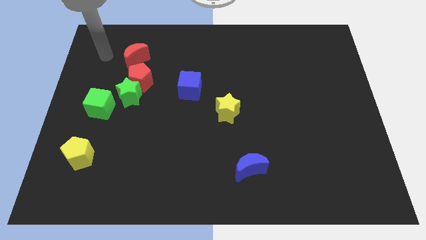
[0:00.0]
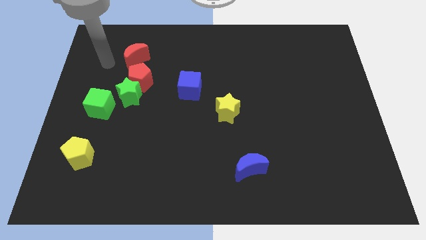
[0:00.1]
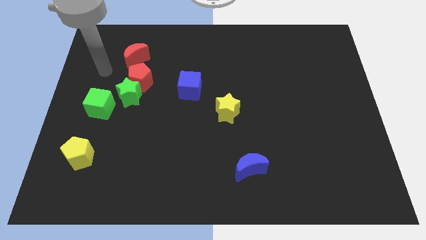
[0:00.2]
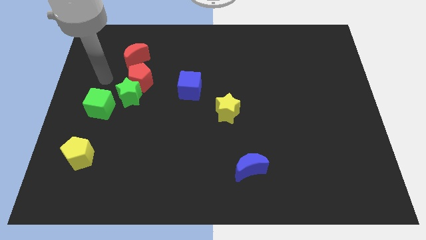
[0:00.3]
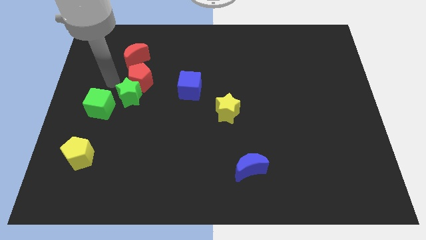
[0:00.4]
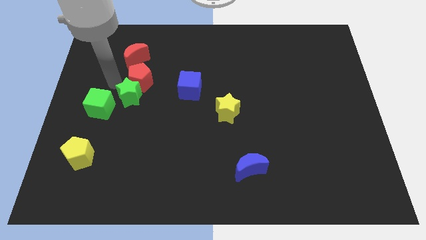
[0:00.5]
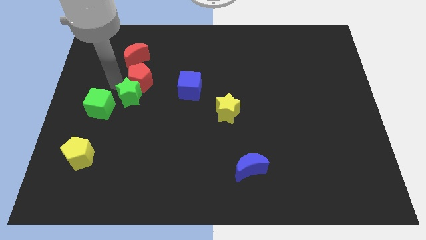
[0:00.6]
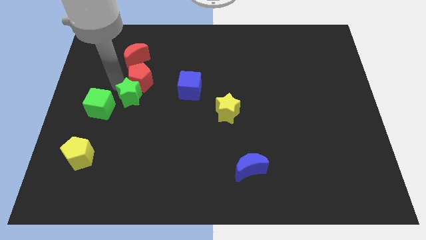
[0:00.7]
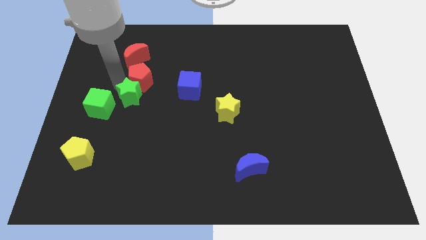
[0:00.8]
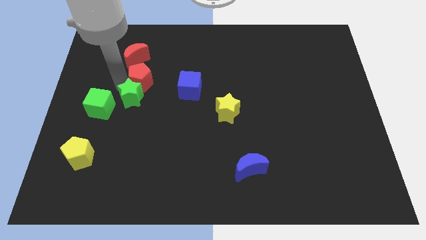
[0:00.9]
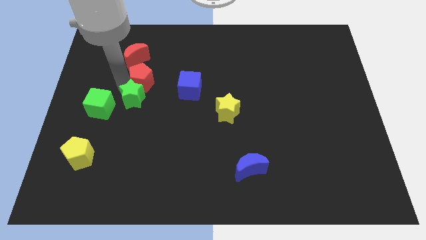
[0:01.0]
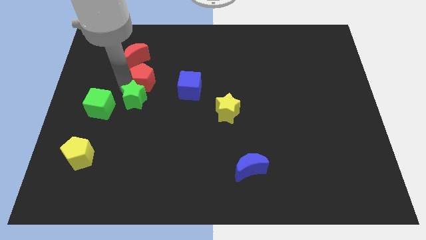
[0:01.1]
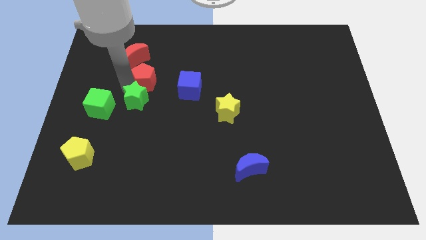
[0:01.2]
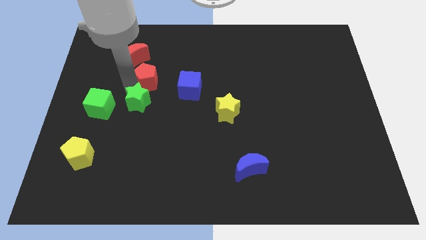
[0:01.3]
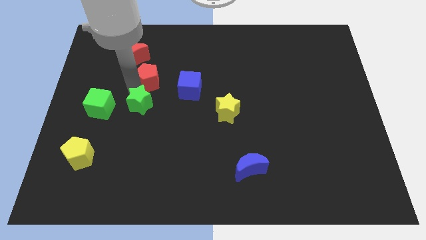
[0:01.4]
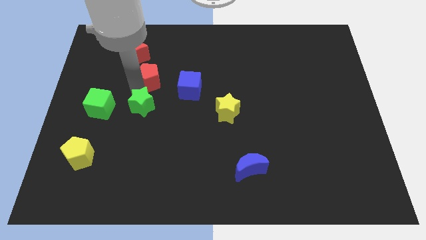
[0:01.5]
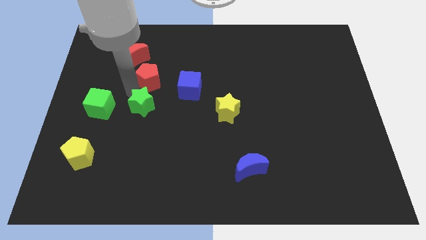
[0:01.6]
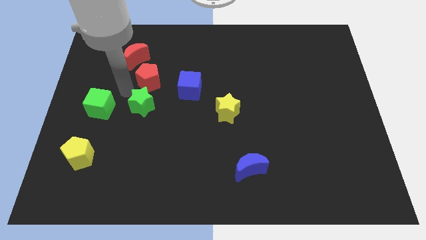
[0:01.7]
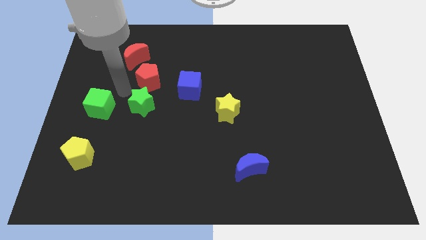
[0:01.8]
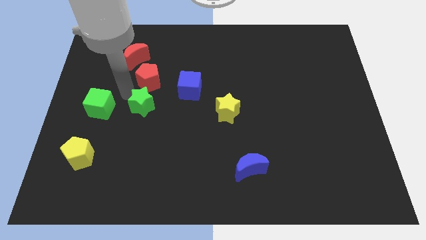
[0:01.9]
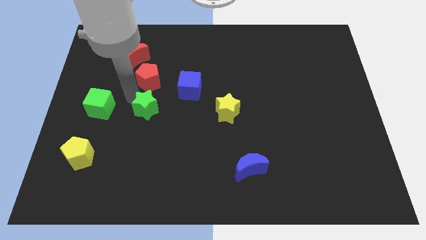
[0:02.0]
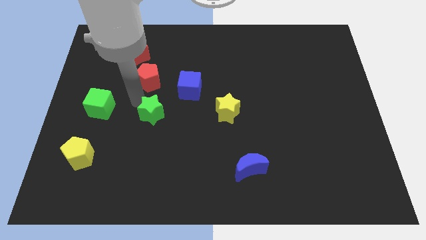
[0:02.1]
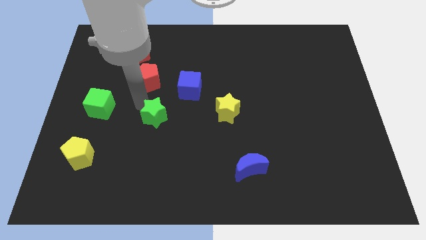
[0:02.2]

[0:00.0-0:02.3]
move the green star away from the red pentagon and green cube

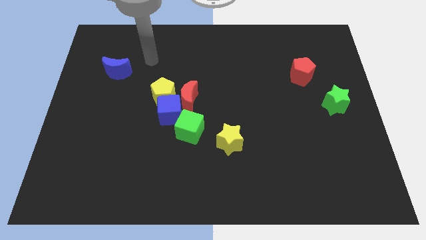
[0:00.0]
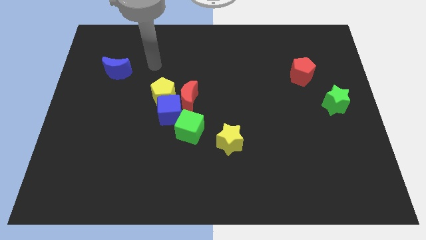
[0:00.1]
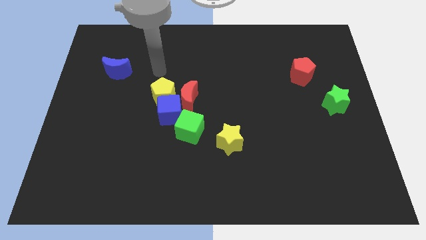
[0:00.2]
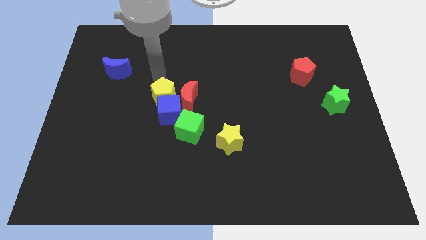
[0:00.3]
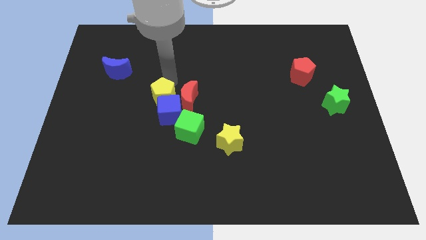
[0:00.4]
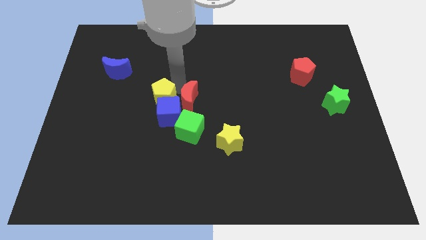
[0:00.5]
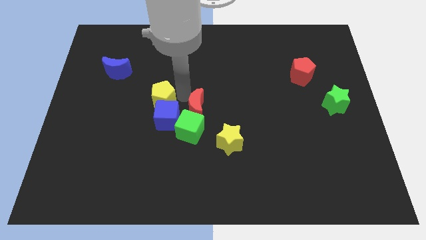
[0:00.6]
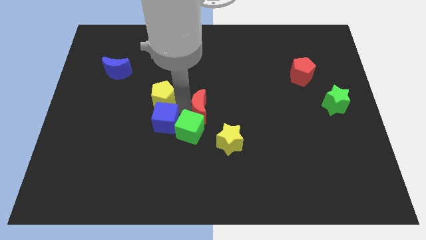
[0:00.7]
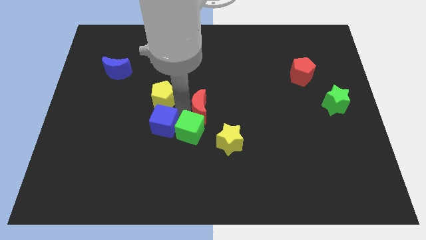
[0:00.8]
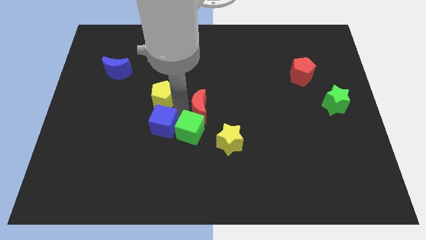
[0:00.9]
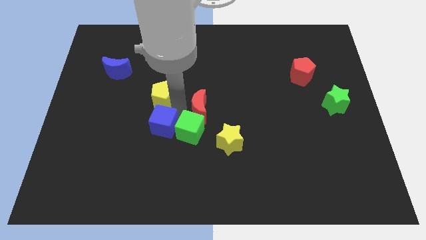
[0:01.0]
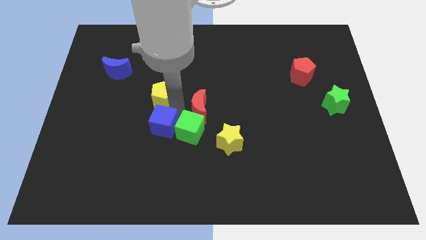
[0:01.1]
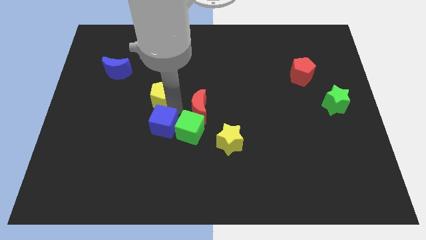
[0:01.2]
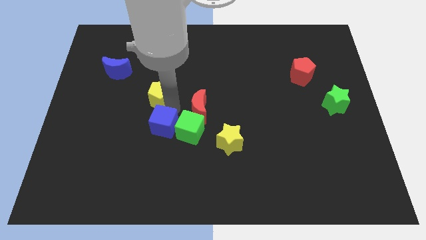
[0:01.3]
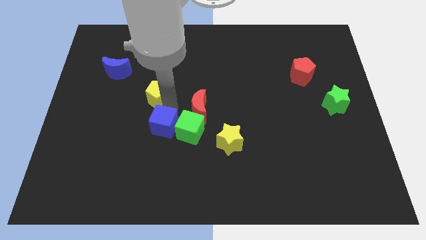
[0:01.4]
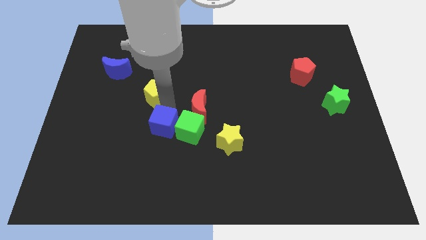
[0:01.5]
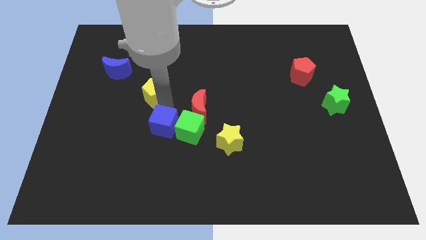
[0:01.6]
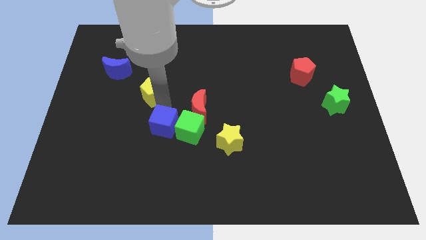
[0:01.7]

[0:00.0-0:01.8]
pull the yellow pentagon apart from the blue cube and red moon

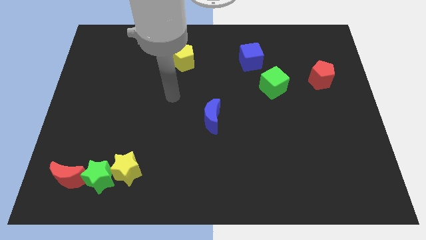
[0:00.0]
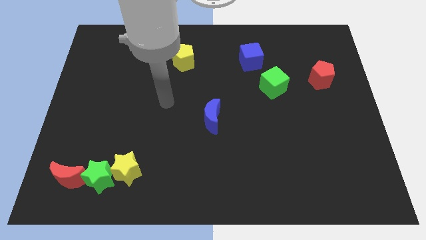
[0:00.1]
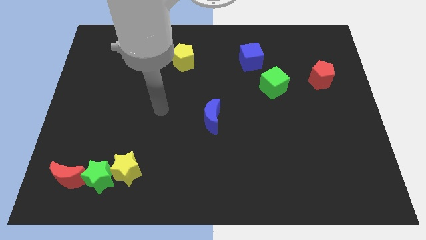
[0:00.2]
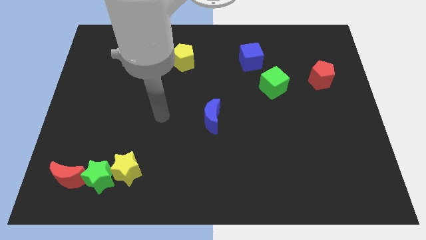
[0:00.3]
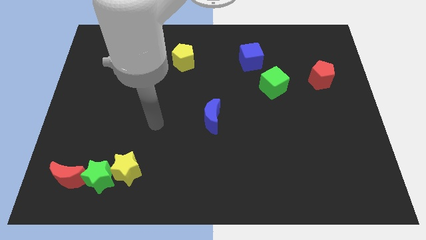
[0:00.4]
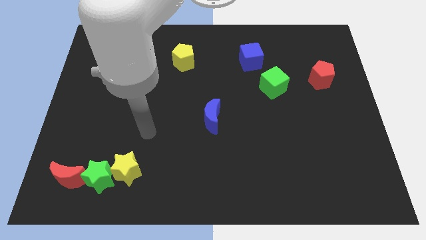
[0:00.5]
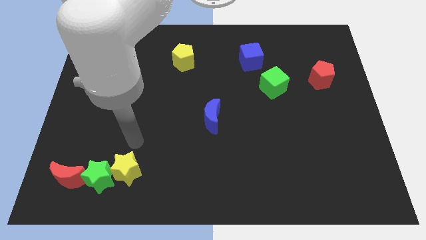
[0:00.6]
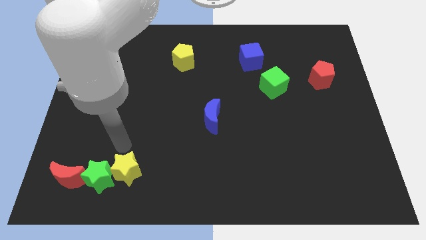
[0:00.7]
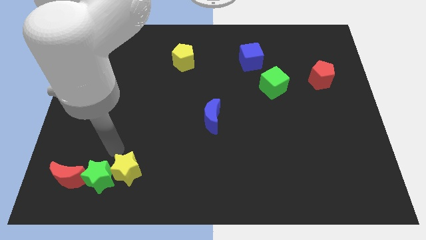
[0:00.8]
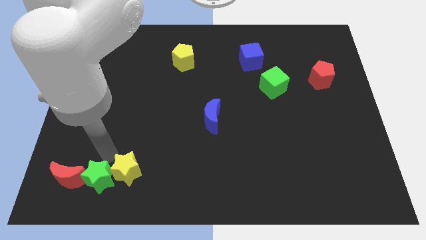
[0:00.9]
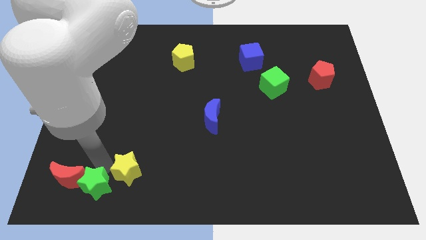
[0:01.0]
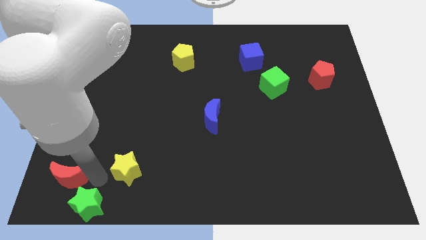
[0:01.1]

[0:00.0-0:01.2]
move the yellow star away from the green star

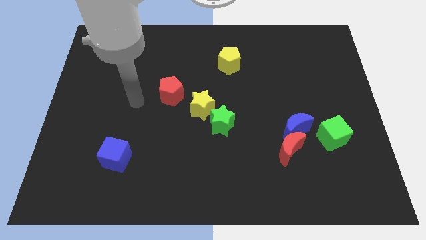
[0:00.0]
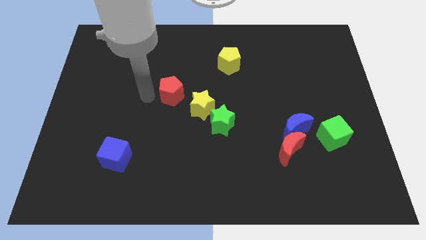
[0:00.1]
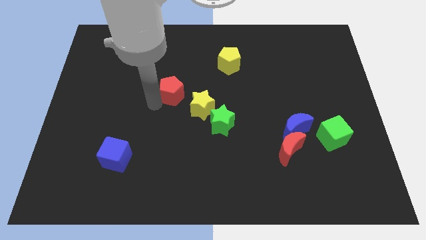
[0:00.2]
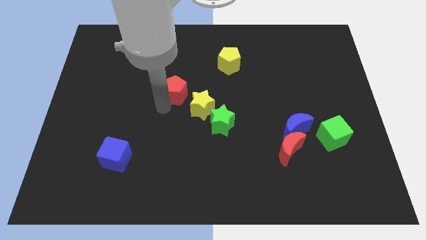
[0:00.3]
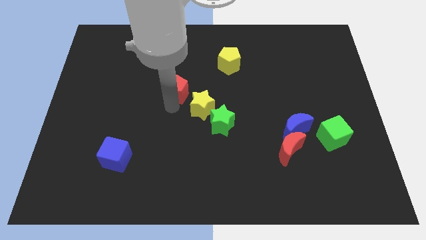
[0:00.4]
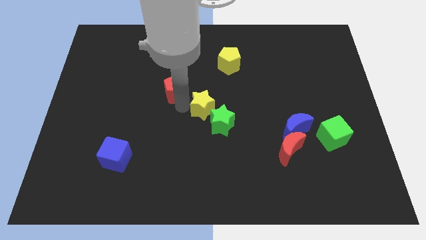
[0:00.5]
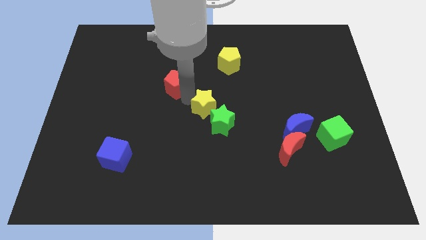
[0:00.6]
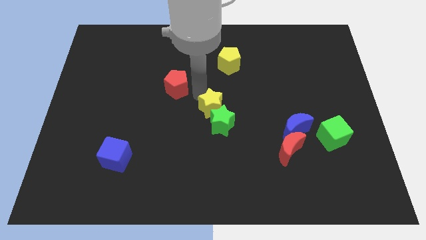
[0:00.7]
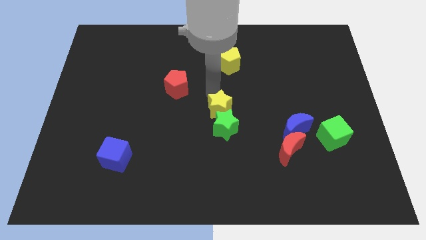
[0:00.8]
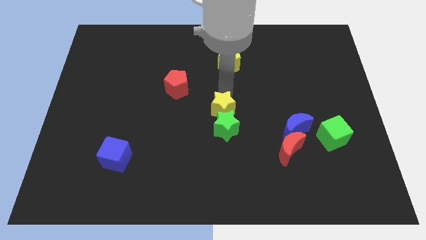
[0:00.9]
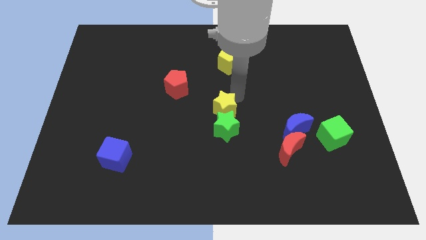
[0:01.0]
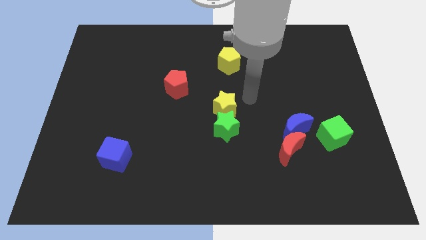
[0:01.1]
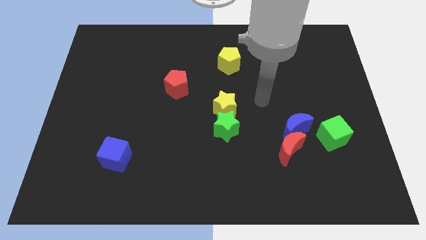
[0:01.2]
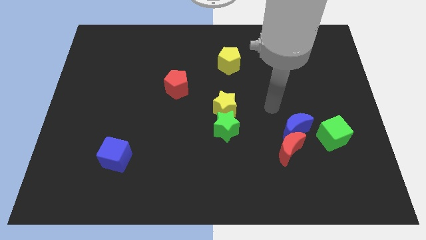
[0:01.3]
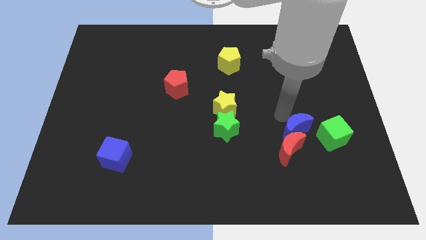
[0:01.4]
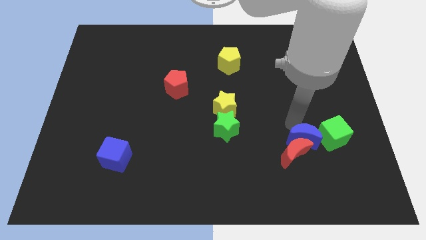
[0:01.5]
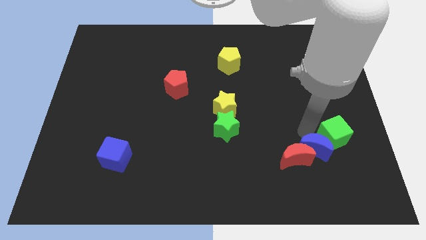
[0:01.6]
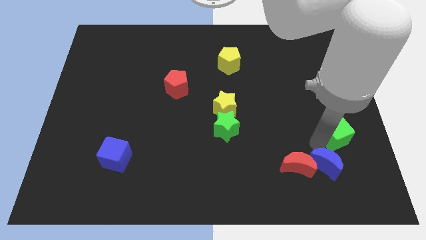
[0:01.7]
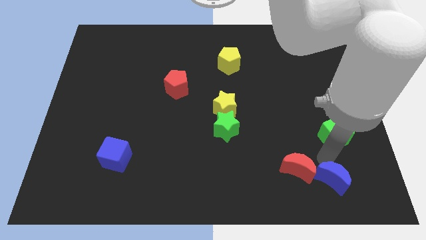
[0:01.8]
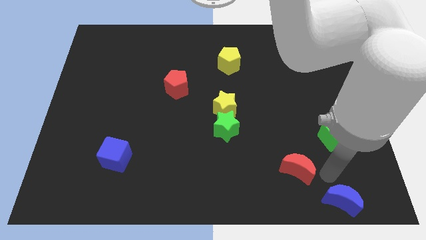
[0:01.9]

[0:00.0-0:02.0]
move the red moon away from the blue moon

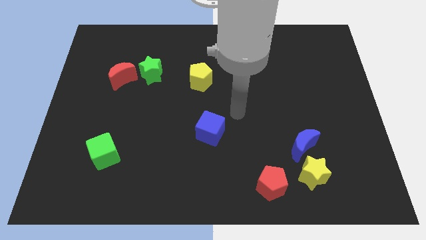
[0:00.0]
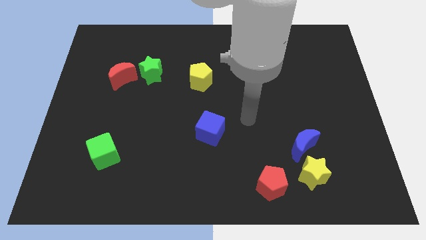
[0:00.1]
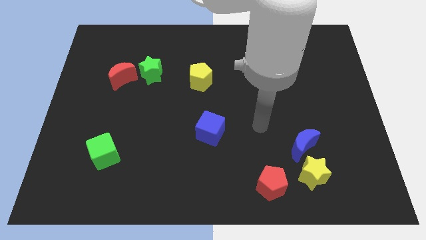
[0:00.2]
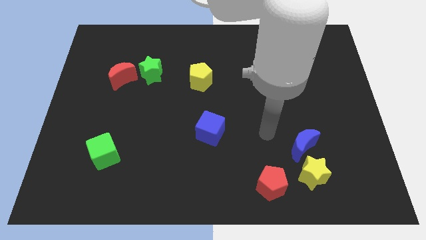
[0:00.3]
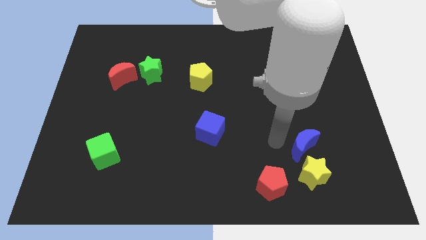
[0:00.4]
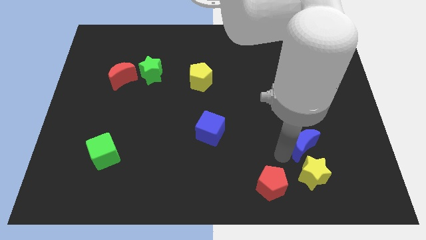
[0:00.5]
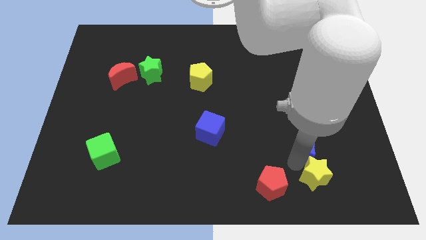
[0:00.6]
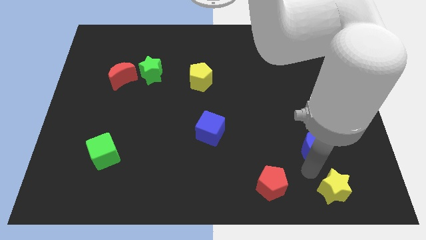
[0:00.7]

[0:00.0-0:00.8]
move the blue moon away from the yellow star

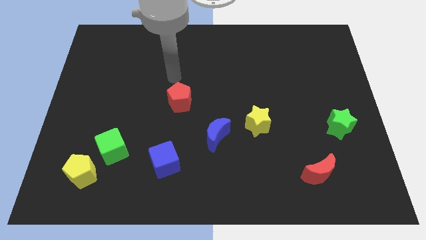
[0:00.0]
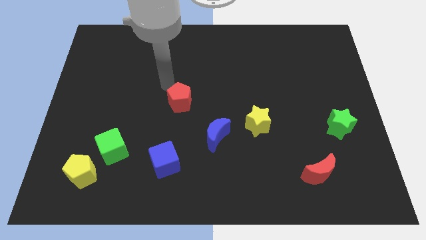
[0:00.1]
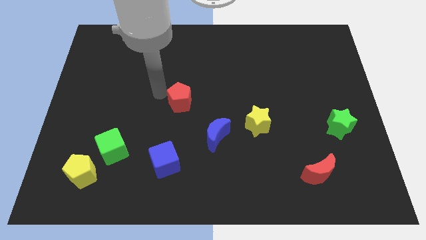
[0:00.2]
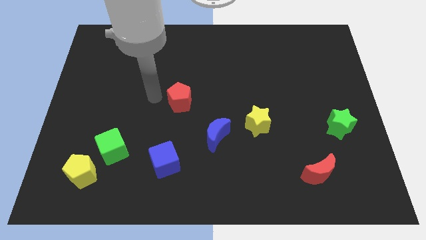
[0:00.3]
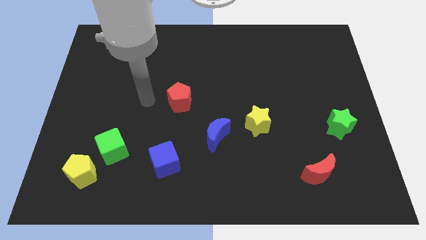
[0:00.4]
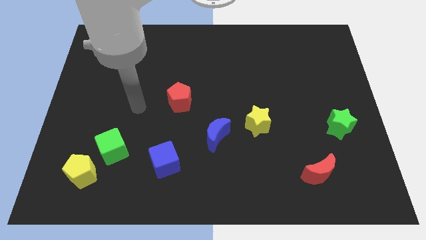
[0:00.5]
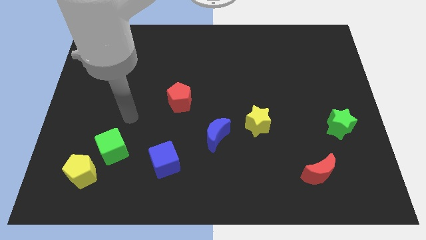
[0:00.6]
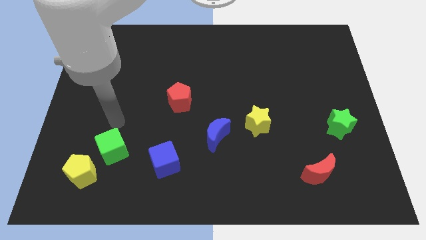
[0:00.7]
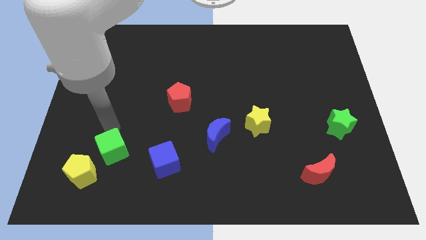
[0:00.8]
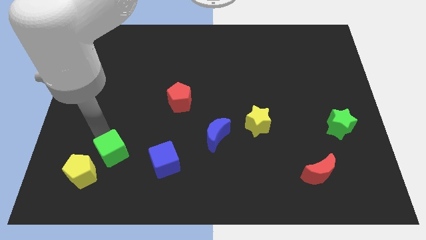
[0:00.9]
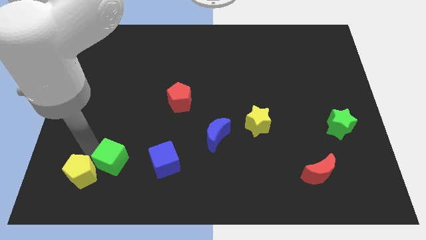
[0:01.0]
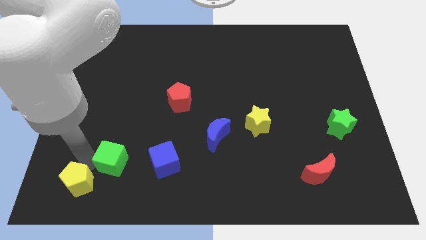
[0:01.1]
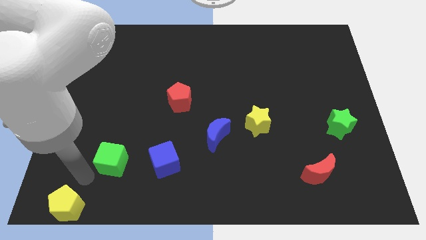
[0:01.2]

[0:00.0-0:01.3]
separate the green cube from the yellow pentagon
